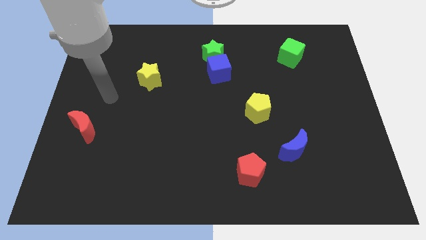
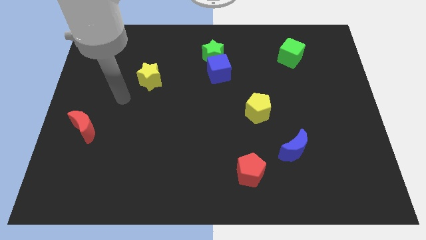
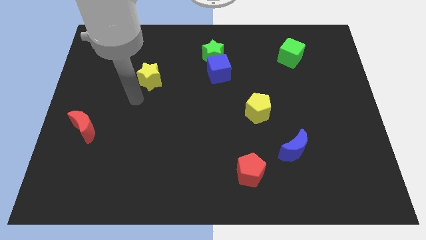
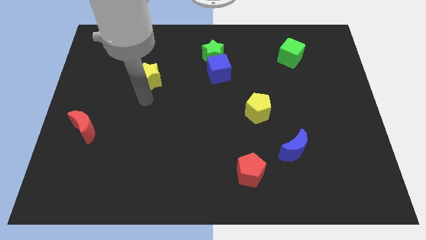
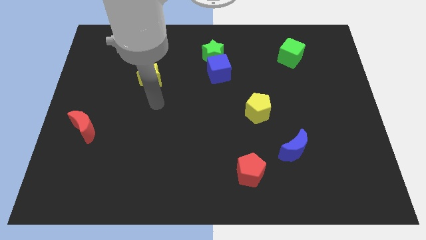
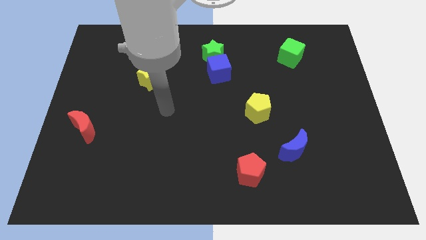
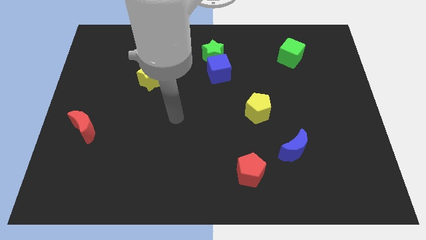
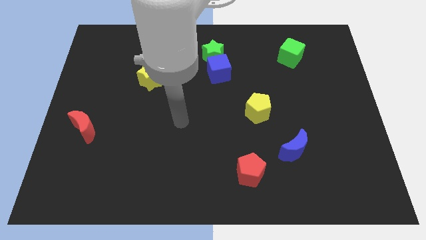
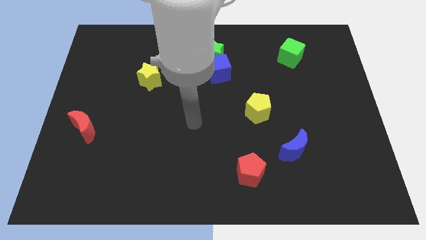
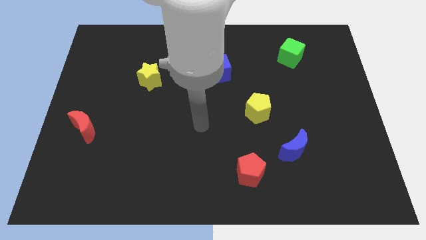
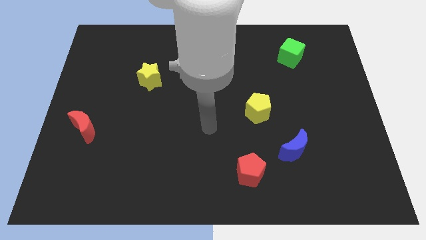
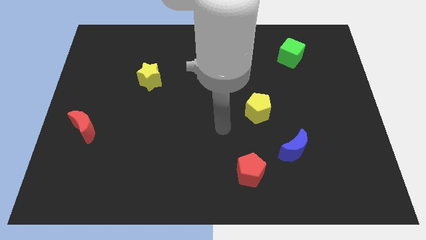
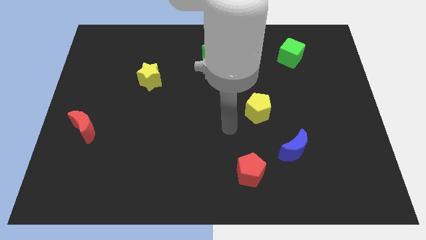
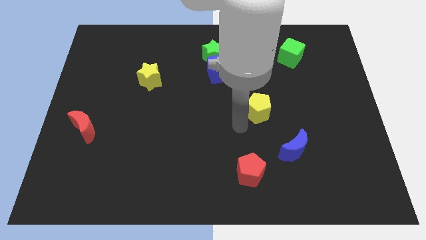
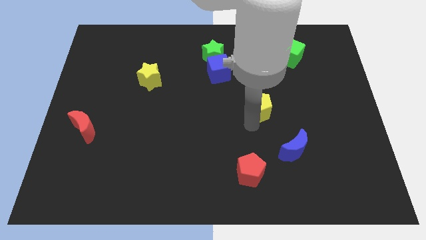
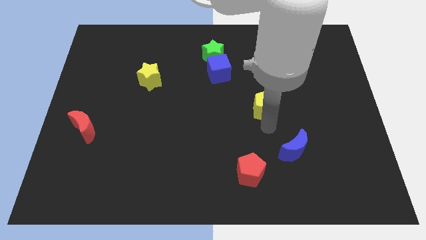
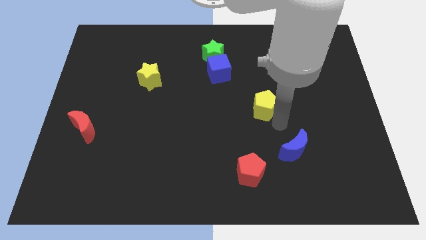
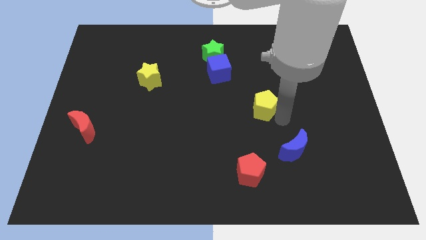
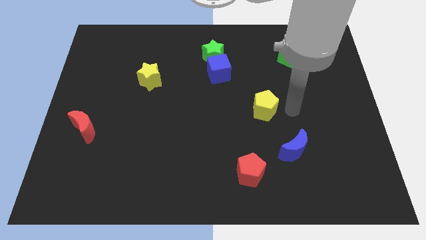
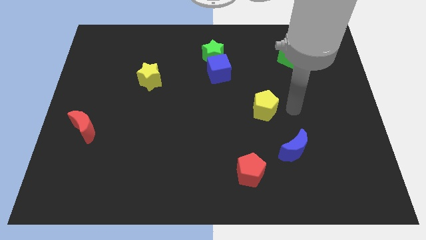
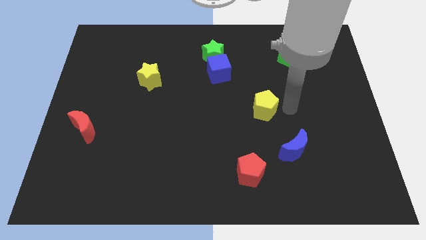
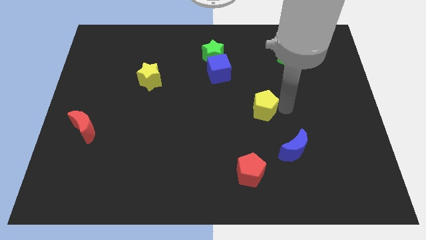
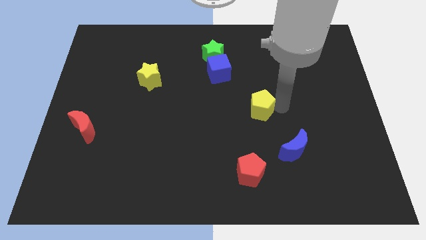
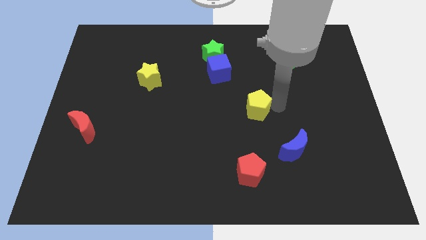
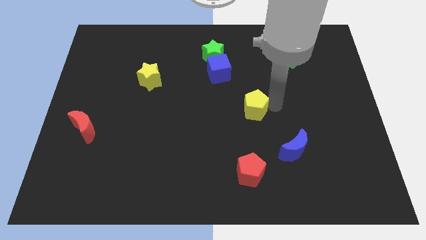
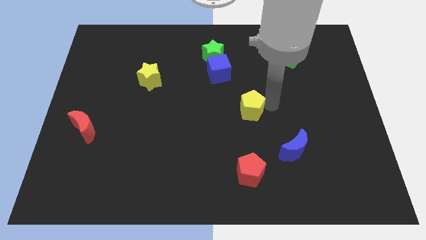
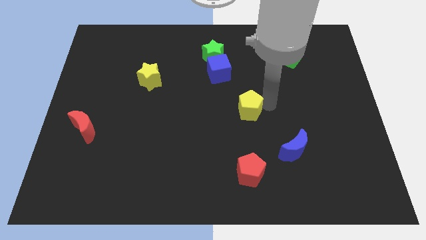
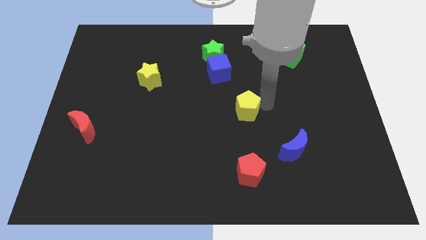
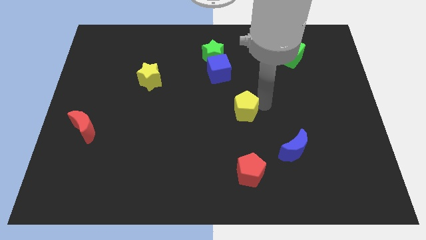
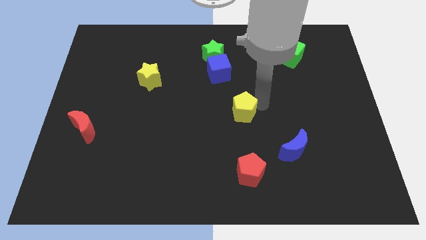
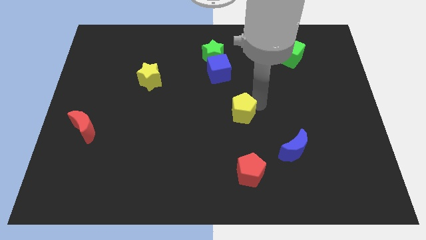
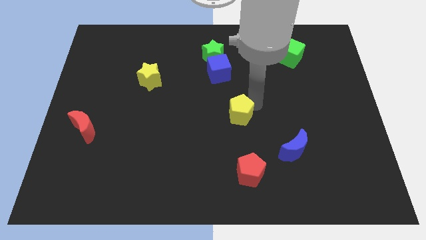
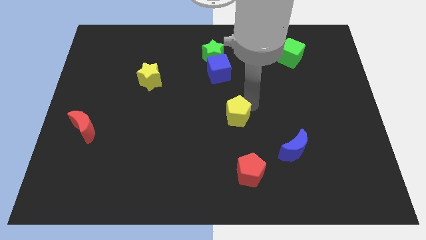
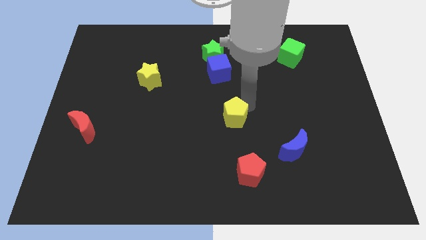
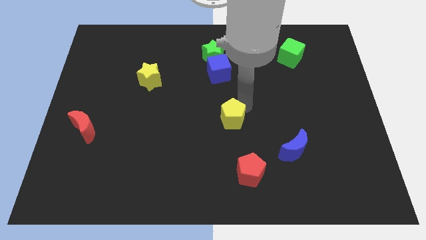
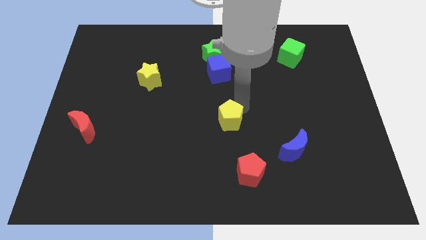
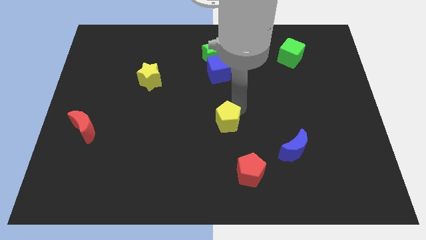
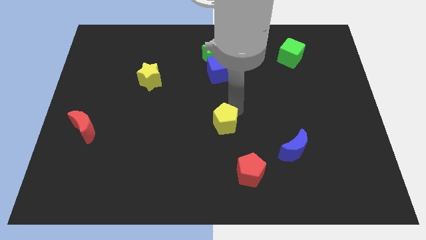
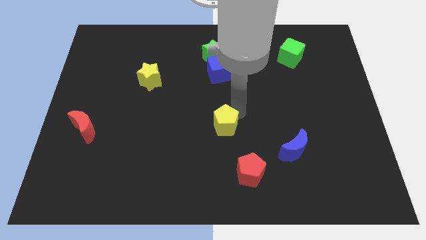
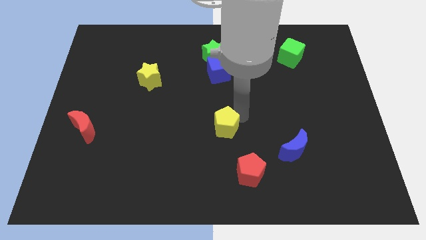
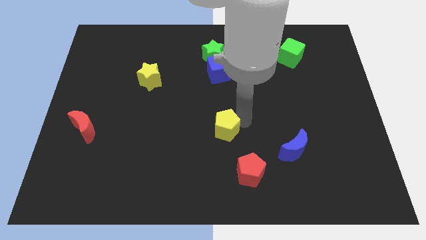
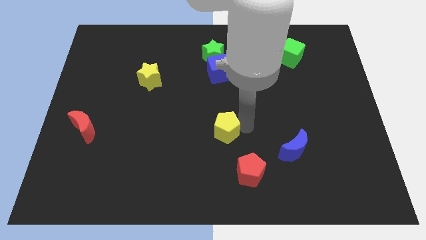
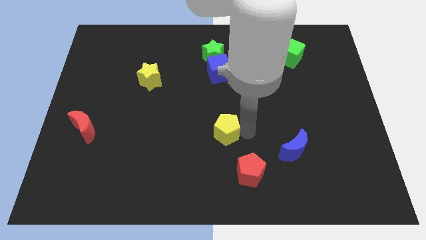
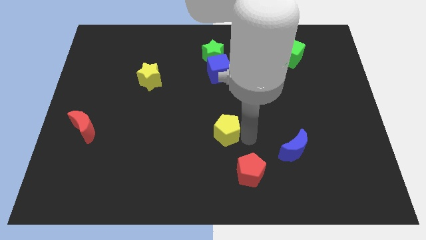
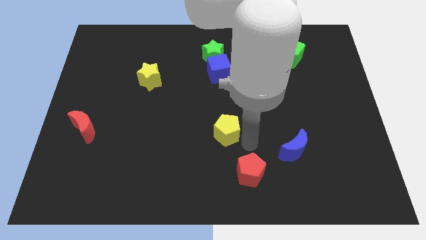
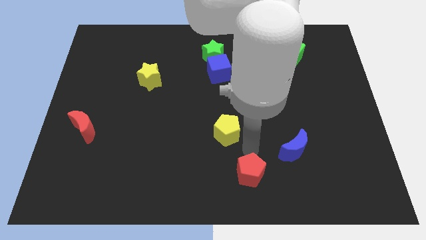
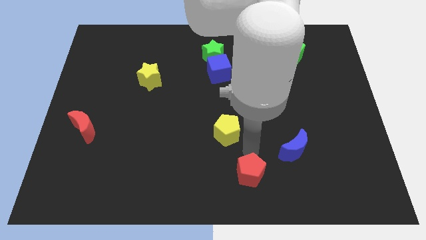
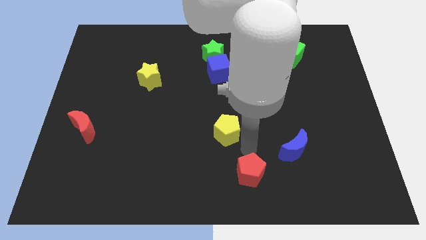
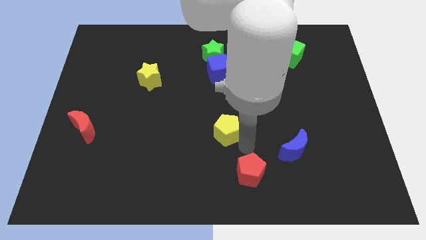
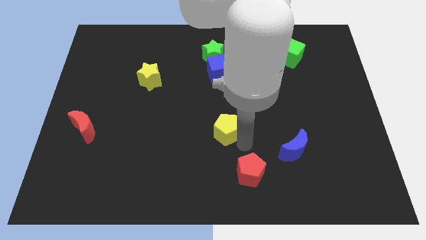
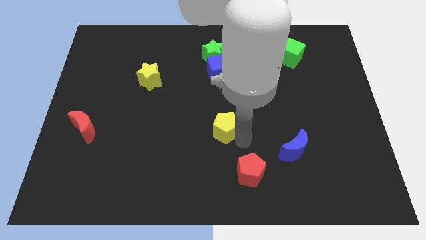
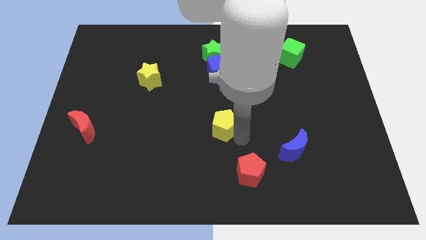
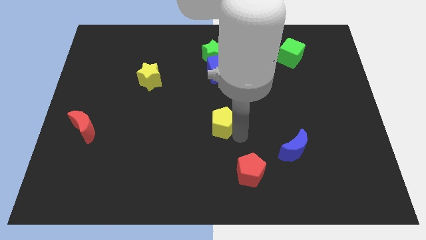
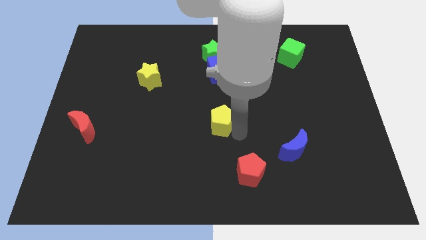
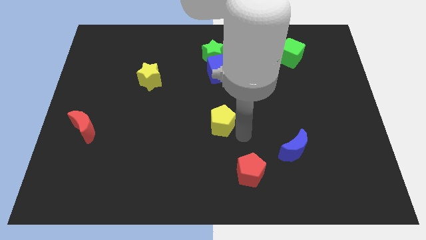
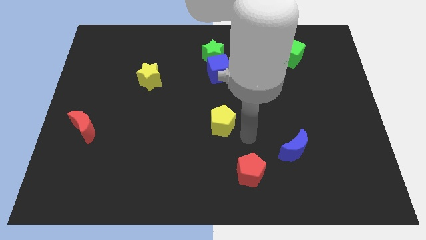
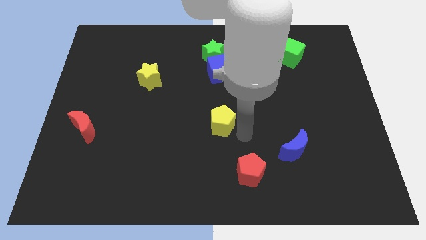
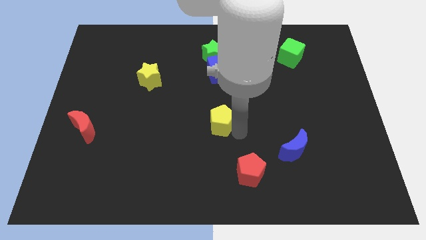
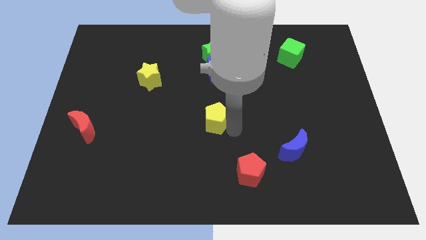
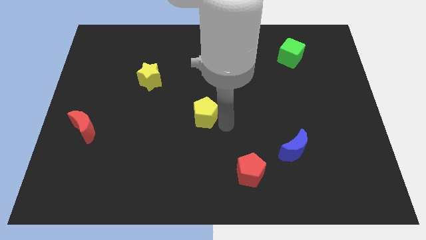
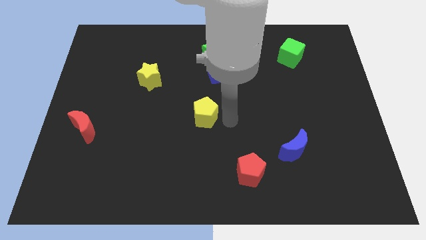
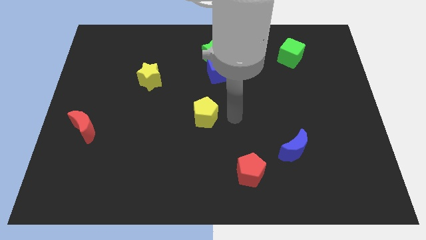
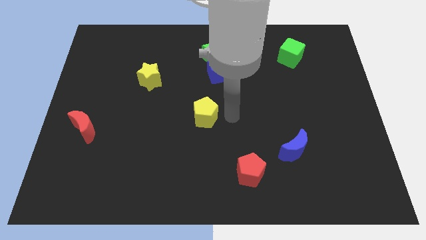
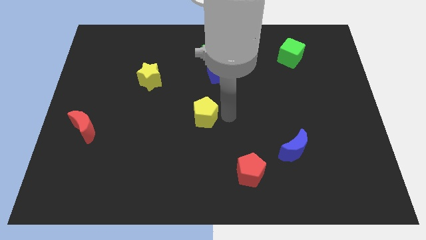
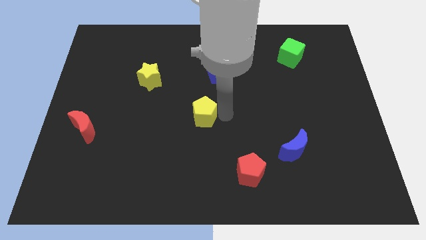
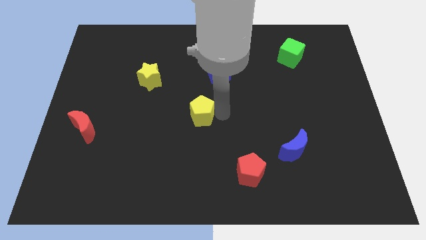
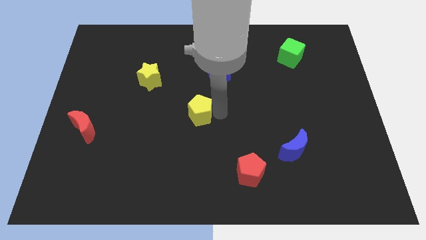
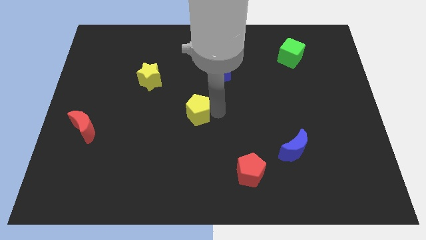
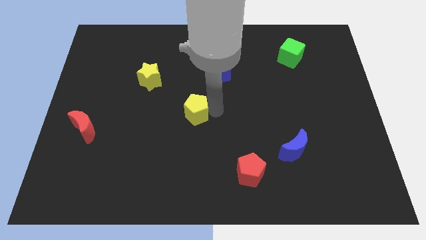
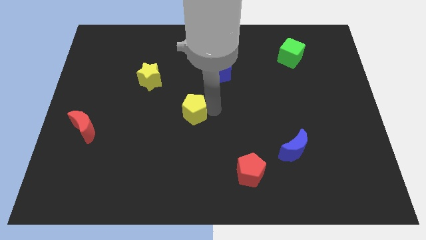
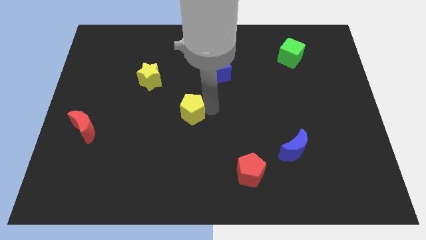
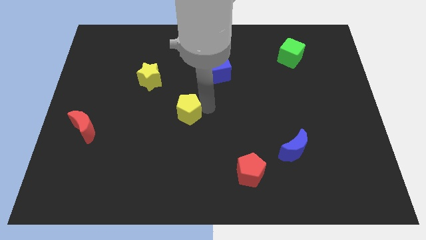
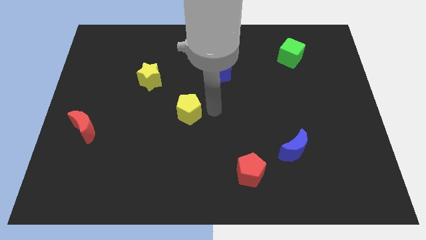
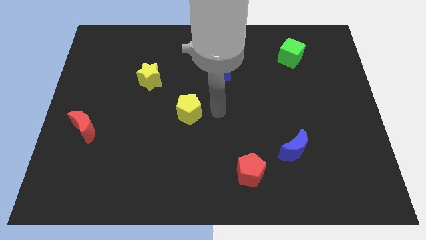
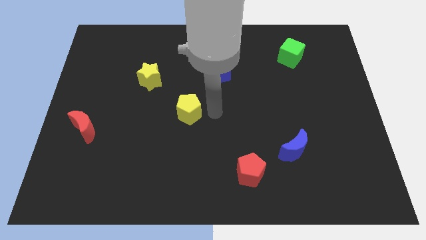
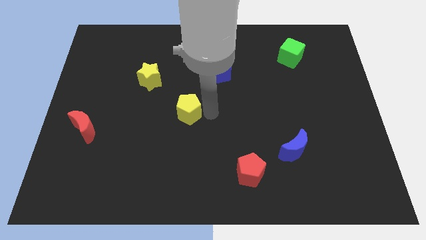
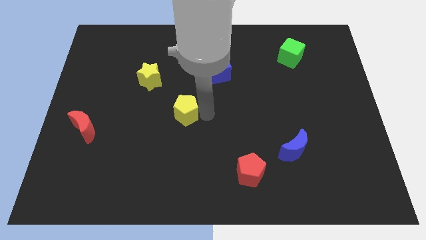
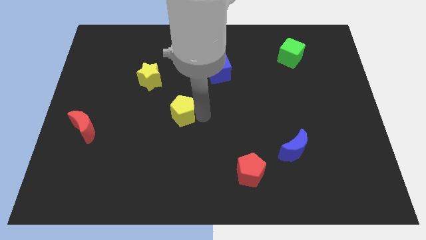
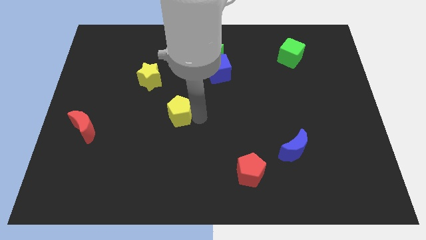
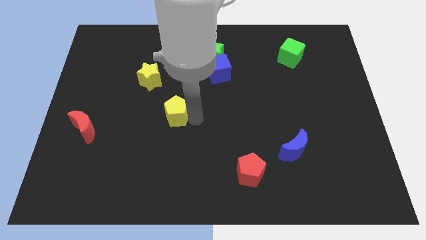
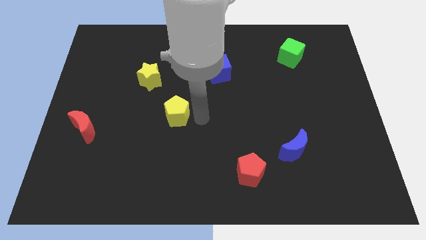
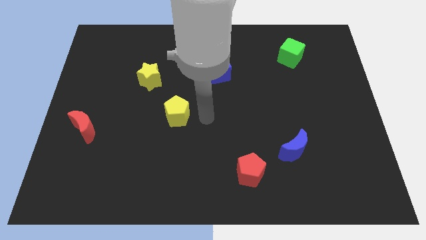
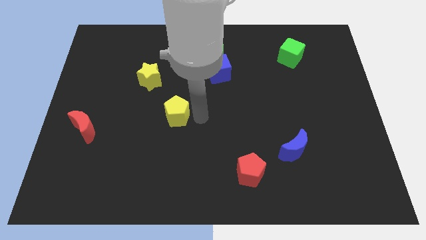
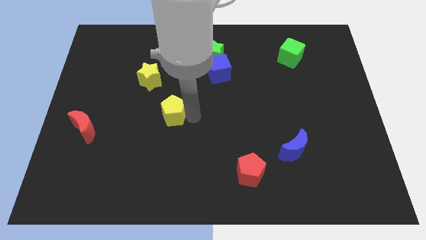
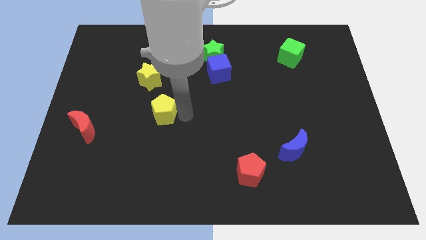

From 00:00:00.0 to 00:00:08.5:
move the yellow pentagon below the yellow star
